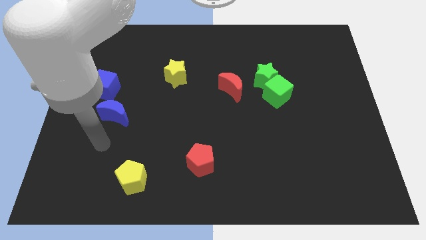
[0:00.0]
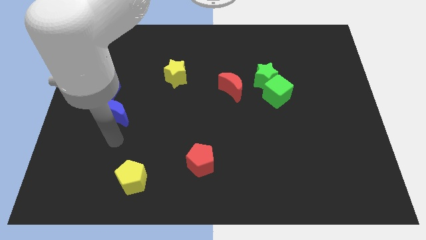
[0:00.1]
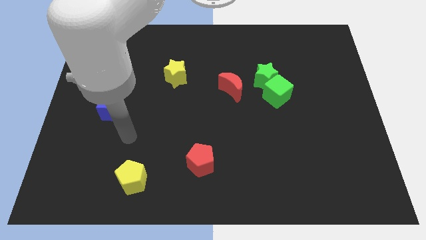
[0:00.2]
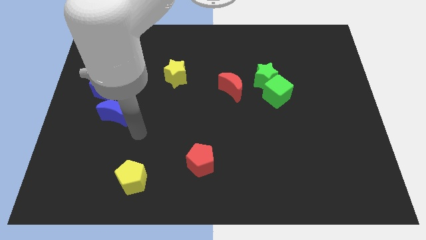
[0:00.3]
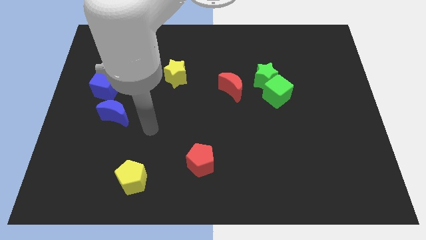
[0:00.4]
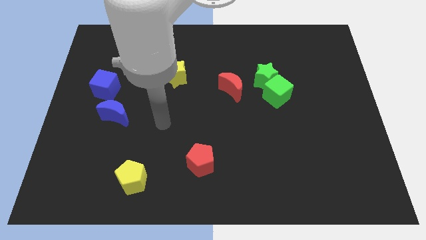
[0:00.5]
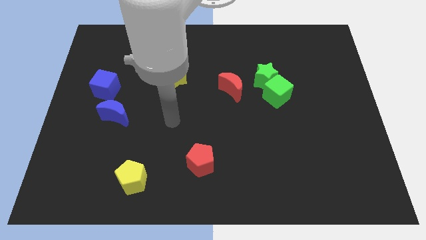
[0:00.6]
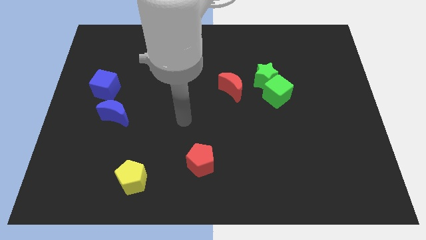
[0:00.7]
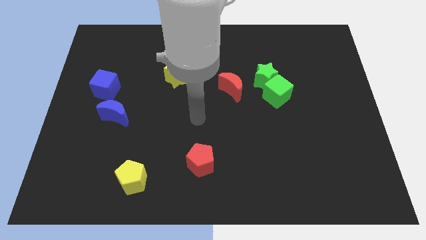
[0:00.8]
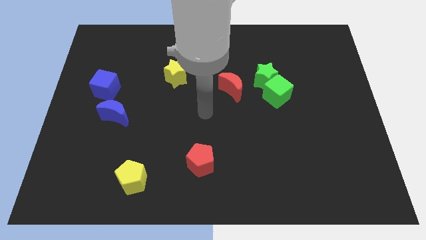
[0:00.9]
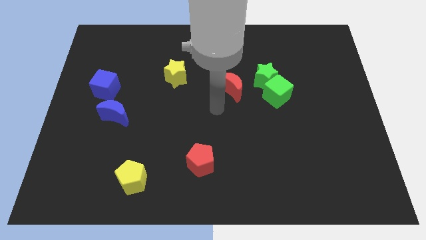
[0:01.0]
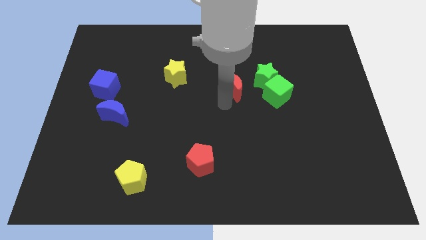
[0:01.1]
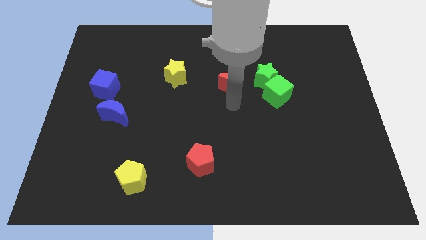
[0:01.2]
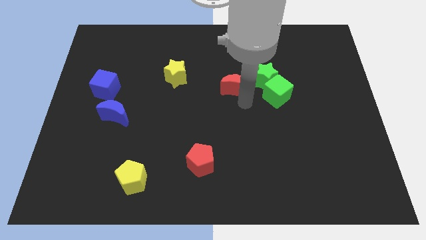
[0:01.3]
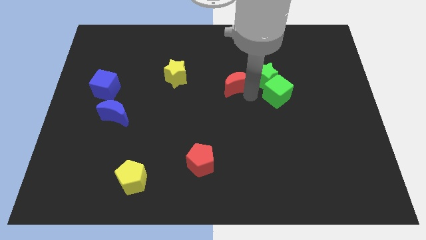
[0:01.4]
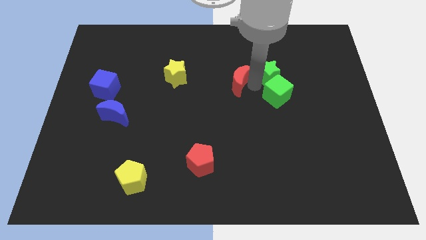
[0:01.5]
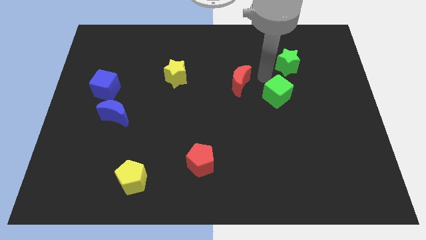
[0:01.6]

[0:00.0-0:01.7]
separate the green cube from the green star

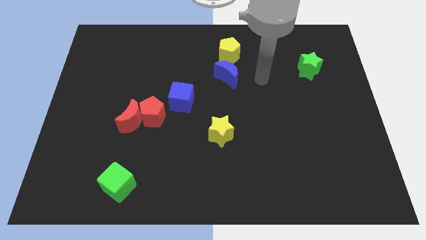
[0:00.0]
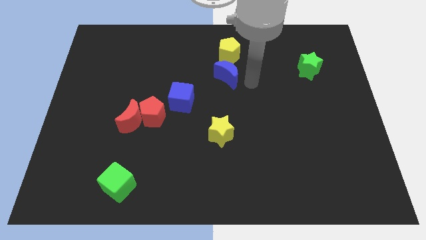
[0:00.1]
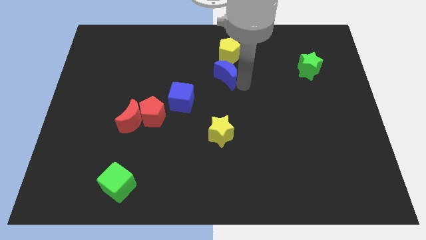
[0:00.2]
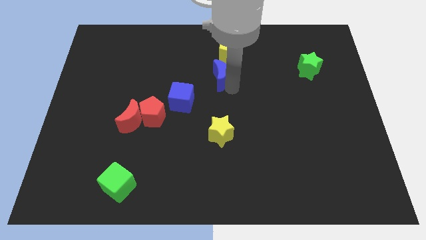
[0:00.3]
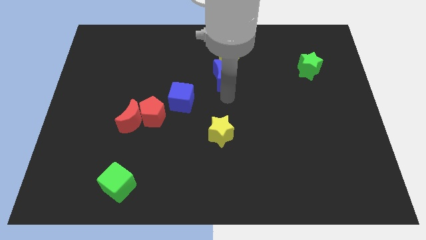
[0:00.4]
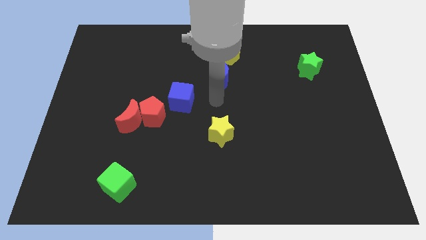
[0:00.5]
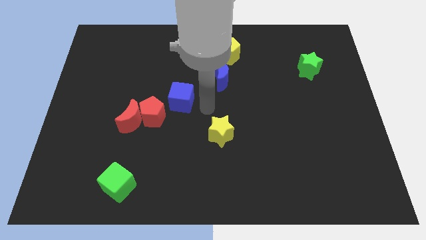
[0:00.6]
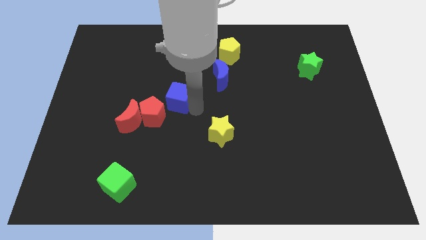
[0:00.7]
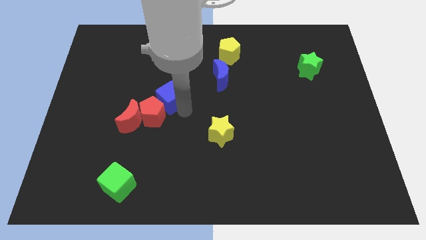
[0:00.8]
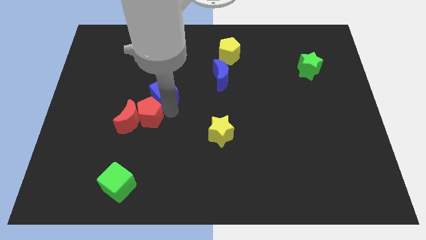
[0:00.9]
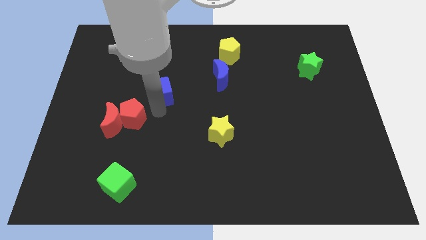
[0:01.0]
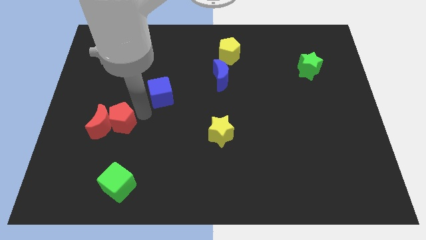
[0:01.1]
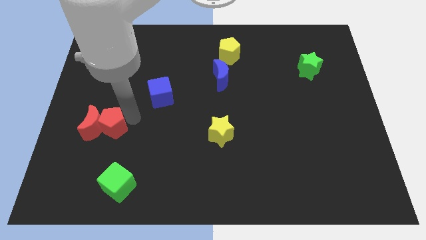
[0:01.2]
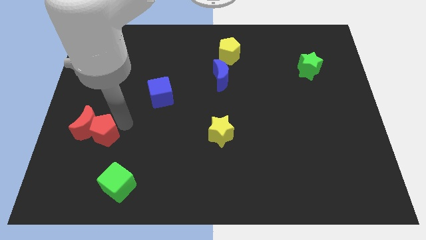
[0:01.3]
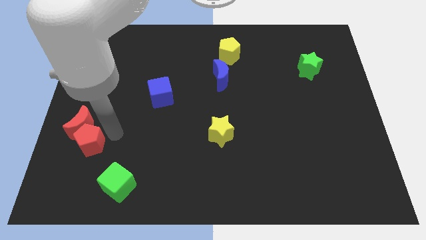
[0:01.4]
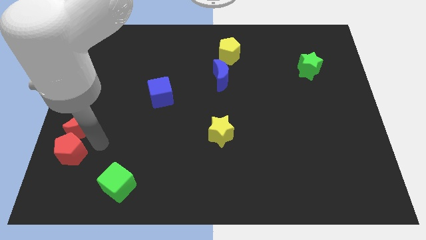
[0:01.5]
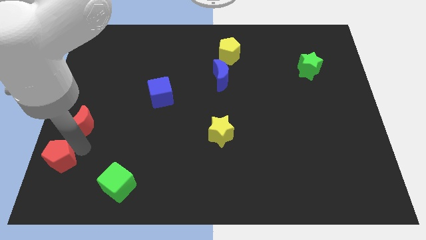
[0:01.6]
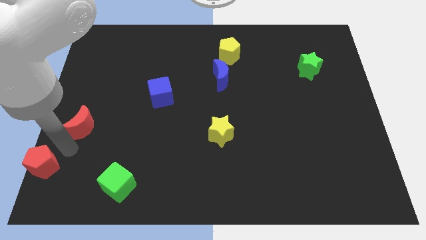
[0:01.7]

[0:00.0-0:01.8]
pull the red moon apart from the red pentagon

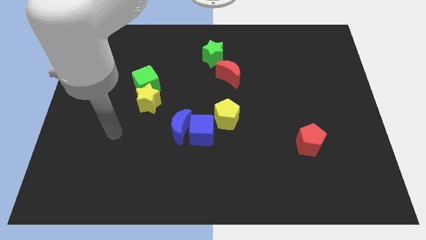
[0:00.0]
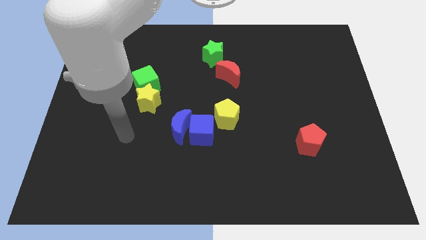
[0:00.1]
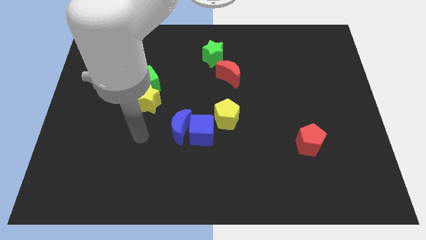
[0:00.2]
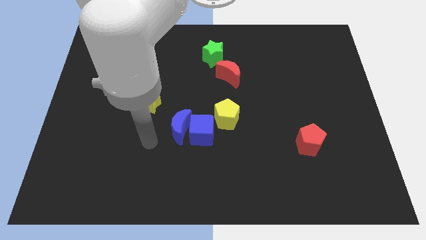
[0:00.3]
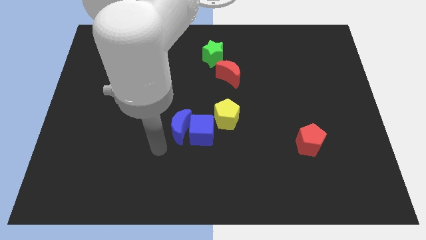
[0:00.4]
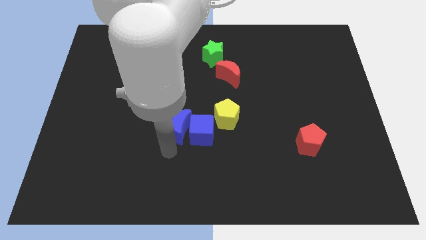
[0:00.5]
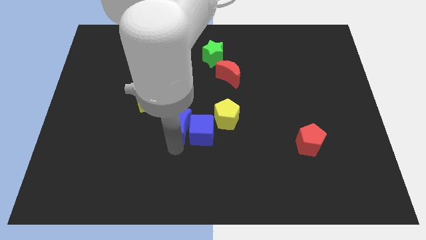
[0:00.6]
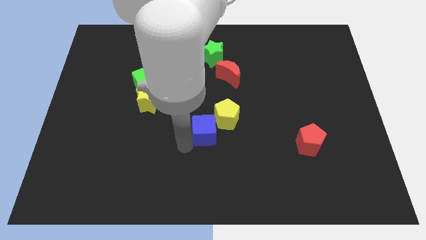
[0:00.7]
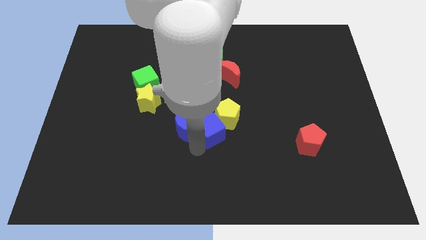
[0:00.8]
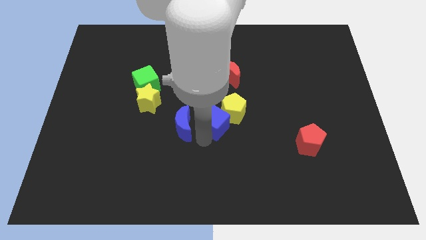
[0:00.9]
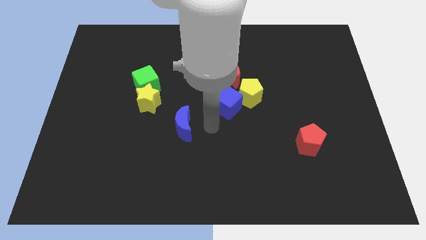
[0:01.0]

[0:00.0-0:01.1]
separate the blue moon from the blue cube

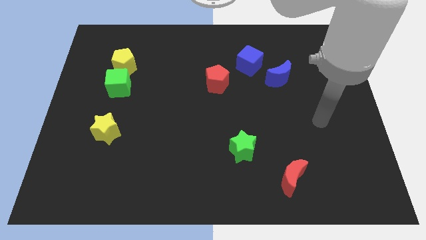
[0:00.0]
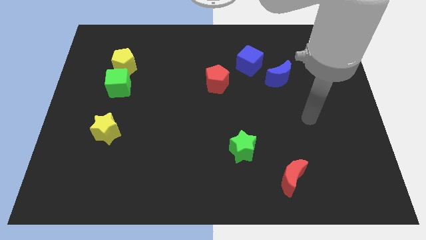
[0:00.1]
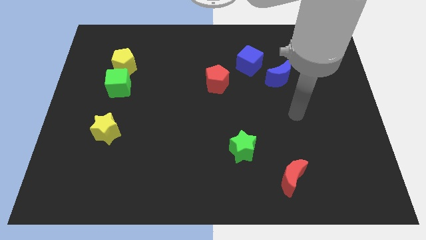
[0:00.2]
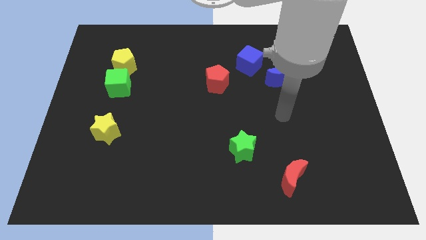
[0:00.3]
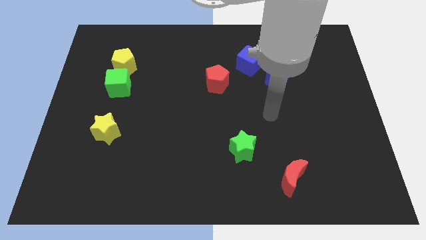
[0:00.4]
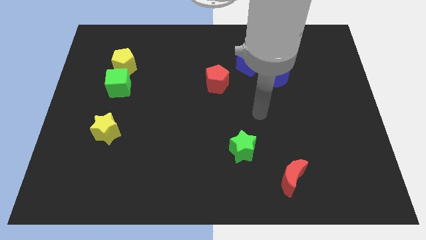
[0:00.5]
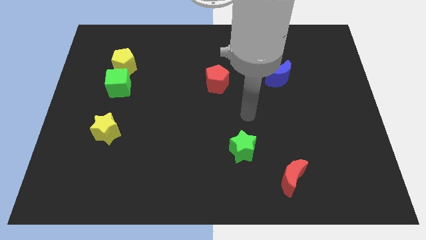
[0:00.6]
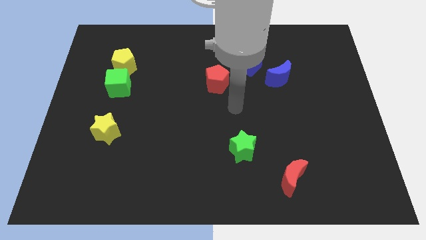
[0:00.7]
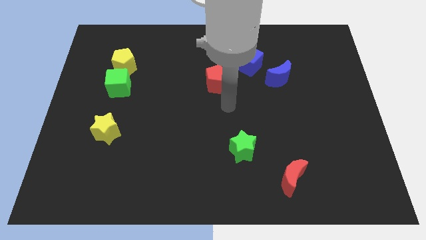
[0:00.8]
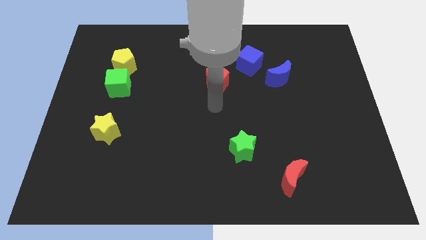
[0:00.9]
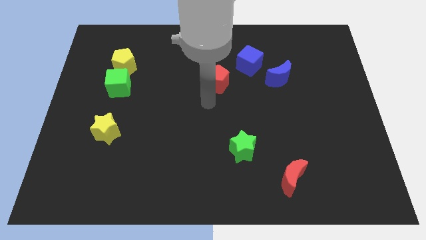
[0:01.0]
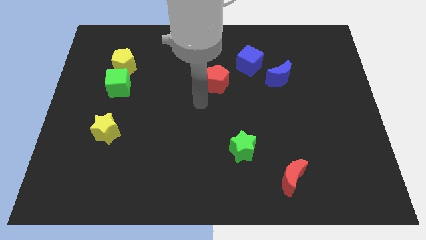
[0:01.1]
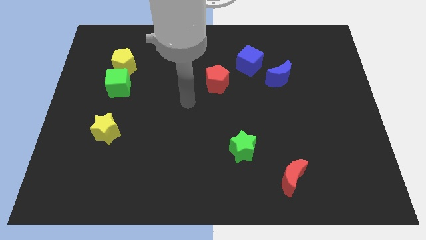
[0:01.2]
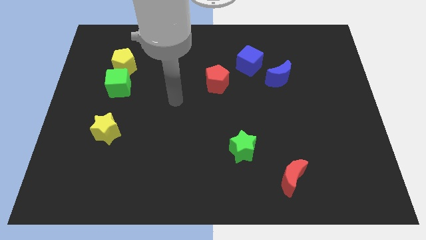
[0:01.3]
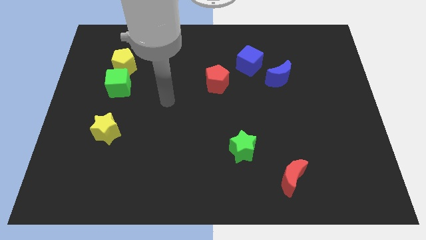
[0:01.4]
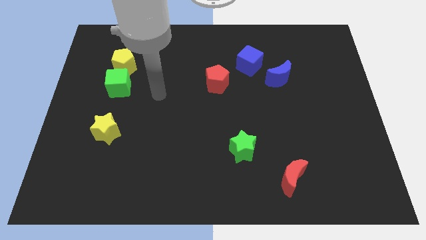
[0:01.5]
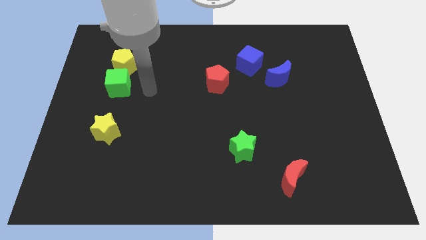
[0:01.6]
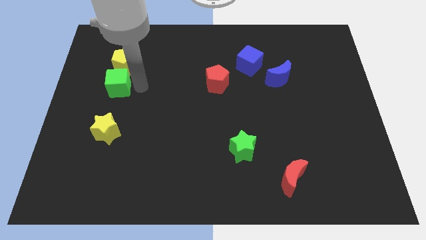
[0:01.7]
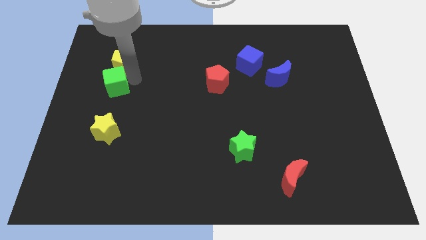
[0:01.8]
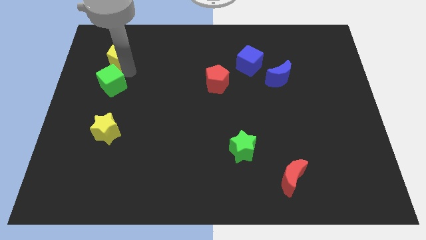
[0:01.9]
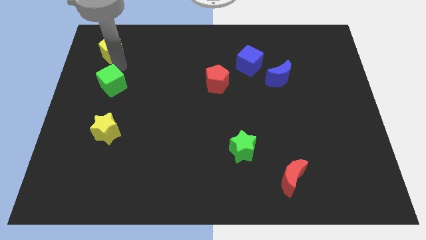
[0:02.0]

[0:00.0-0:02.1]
move the green cube away from the yellow pentagon

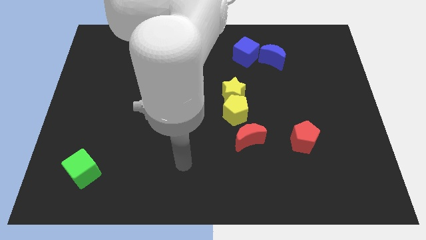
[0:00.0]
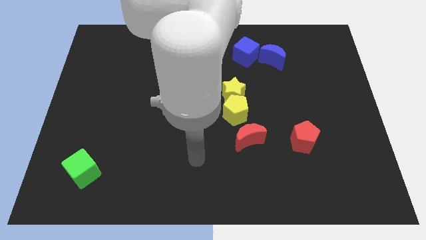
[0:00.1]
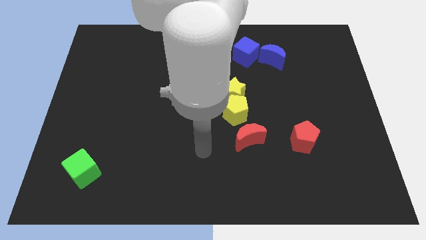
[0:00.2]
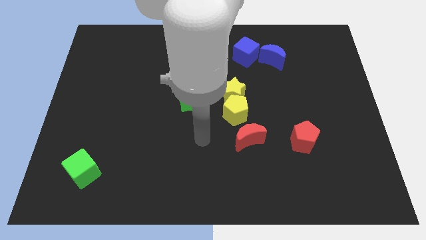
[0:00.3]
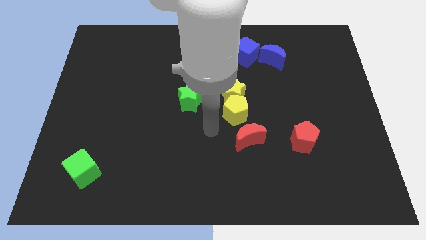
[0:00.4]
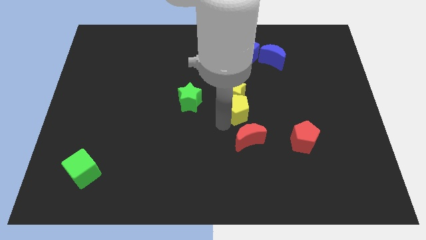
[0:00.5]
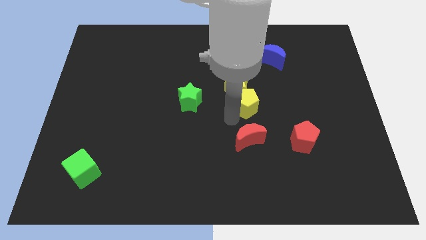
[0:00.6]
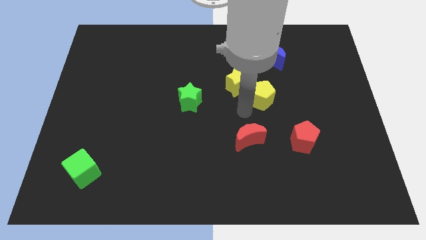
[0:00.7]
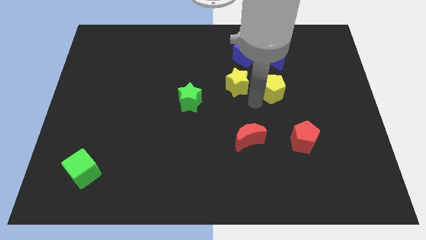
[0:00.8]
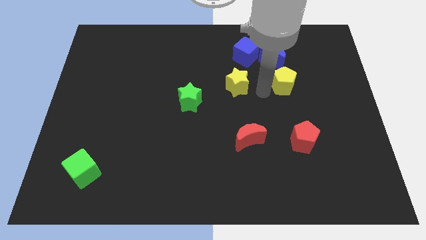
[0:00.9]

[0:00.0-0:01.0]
separate the yellow star from the yellow pentagon

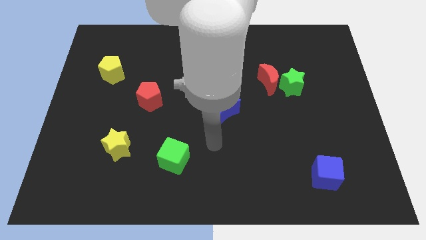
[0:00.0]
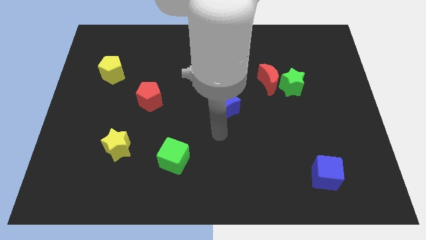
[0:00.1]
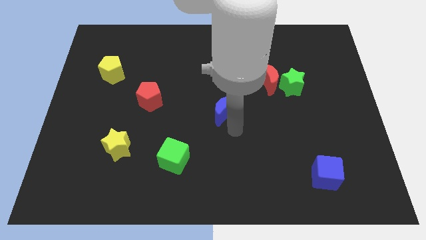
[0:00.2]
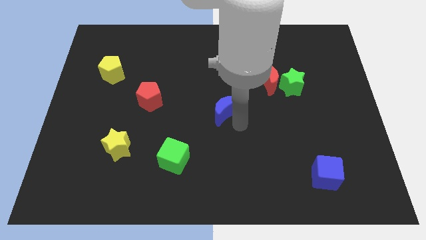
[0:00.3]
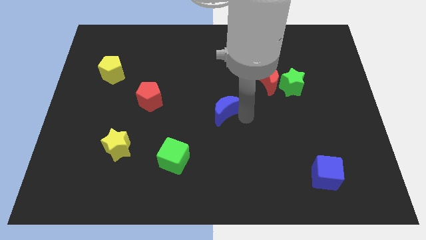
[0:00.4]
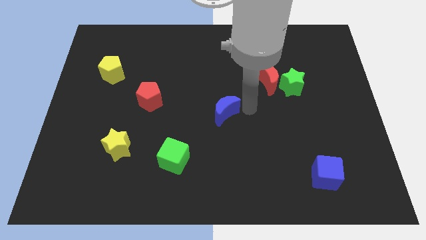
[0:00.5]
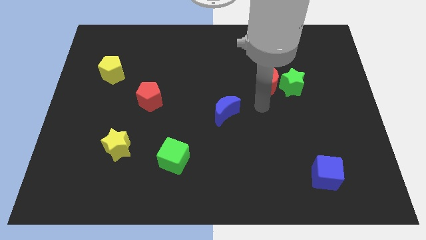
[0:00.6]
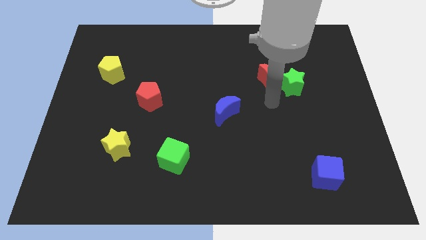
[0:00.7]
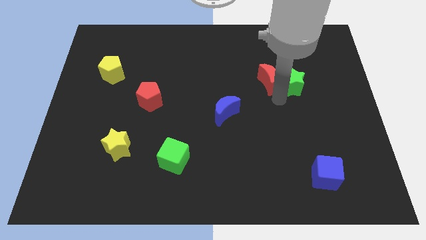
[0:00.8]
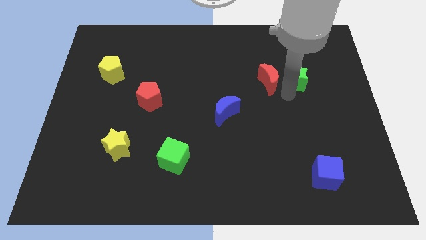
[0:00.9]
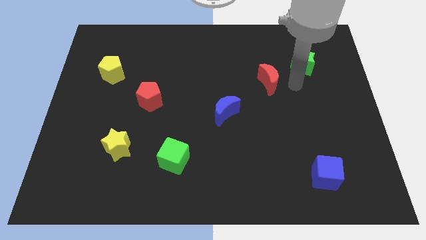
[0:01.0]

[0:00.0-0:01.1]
move the red moon away from the green star

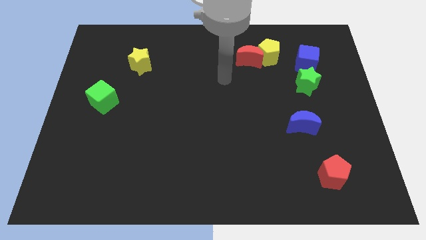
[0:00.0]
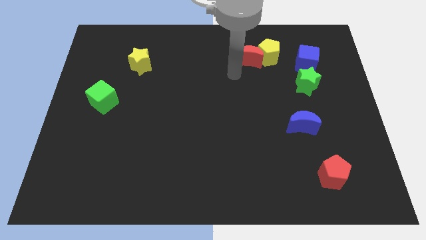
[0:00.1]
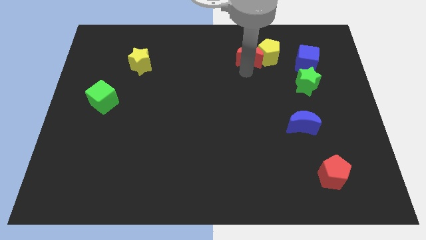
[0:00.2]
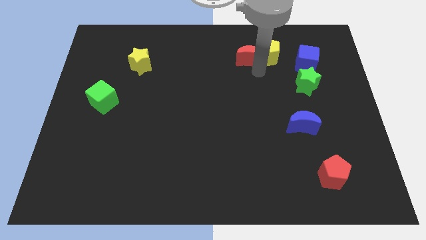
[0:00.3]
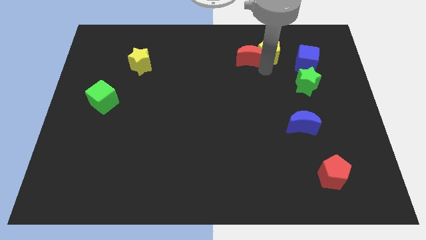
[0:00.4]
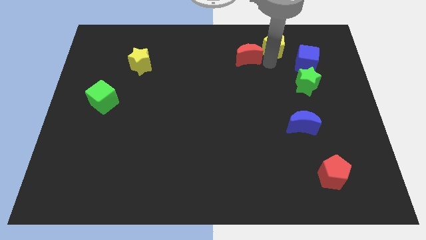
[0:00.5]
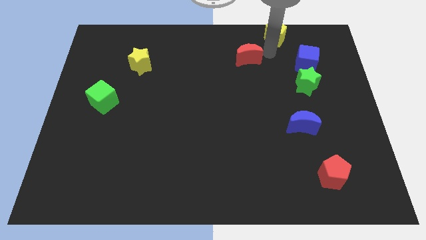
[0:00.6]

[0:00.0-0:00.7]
separate the red moon from the yellow pentagon
